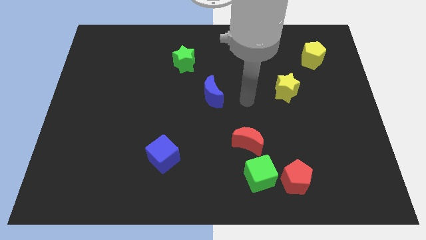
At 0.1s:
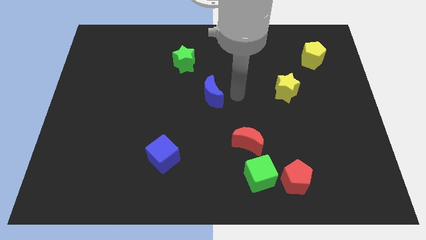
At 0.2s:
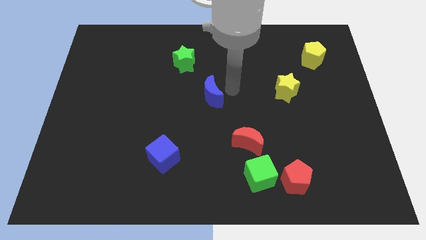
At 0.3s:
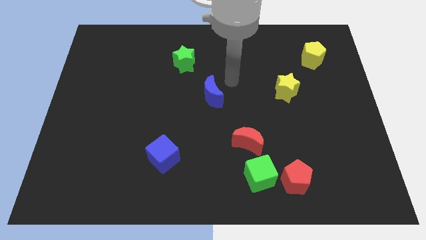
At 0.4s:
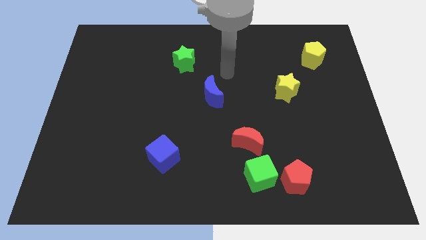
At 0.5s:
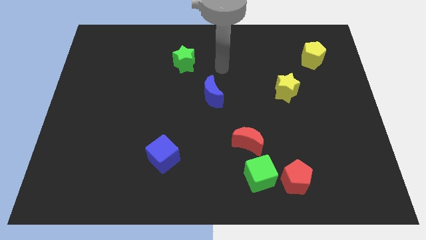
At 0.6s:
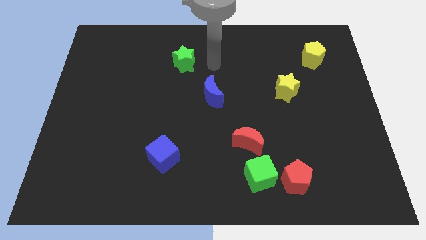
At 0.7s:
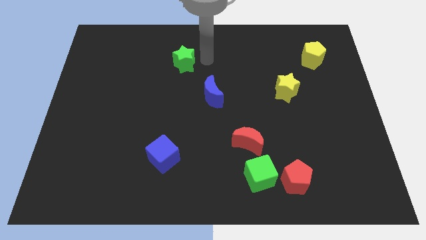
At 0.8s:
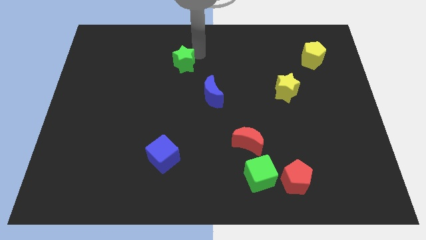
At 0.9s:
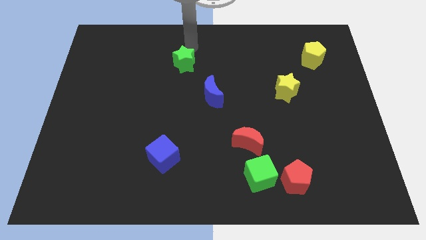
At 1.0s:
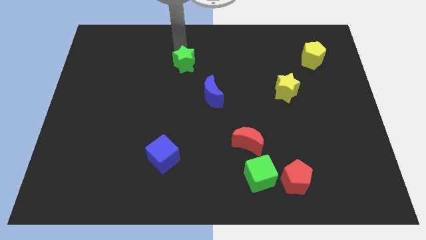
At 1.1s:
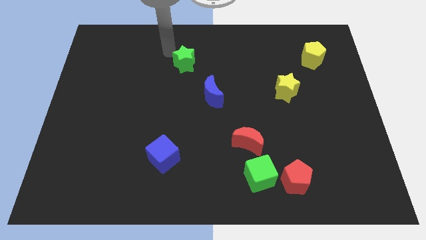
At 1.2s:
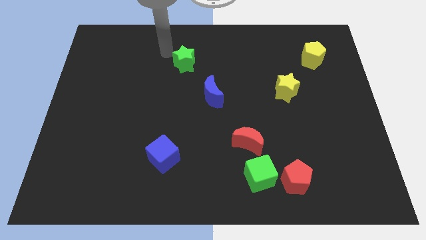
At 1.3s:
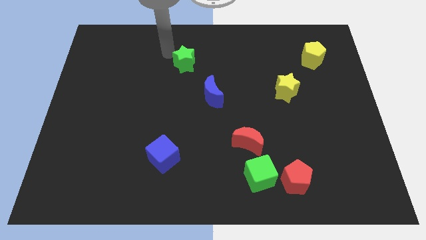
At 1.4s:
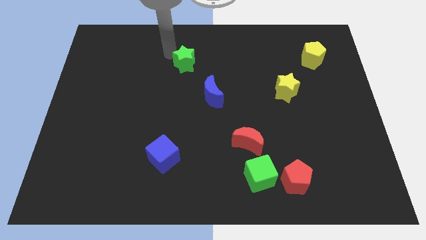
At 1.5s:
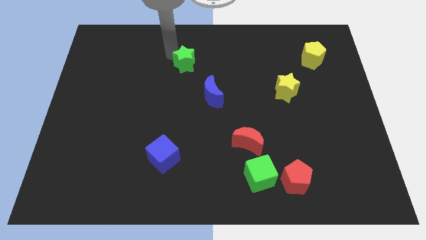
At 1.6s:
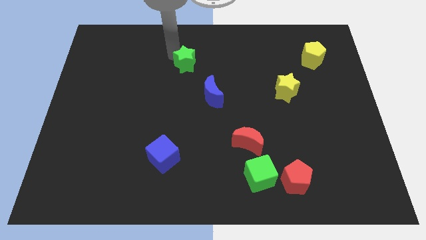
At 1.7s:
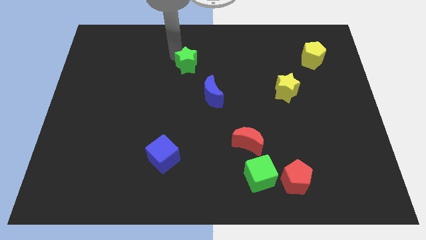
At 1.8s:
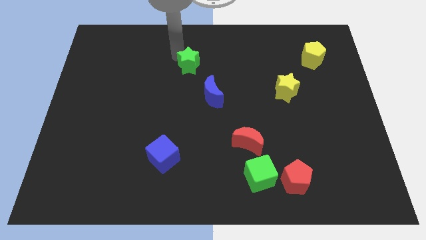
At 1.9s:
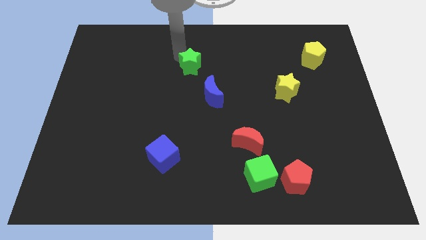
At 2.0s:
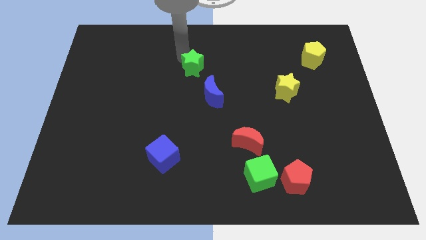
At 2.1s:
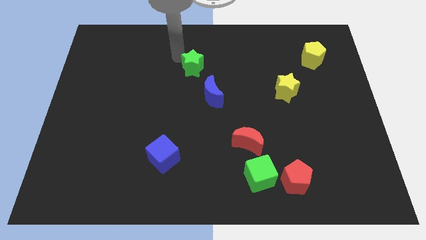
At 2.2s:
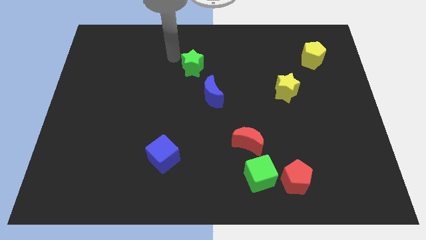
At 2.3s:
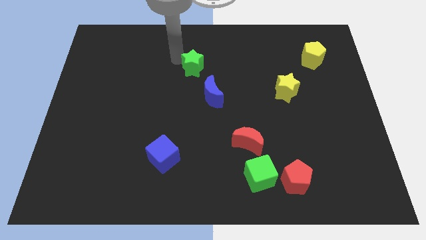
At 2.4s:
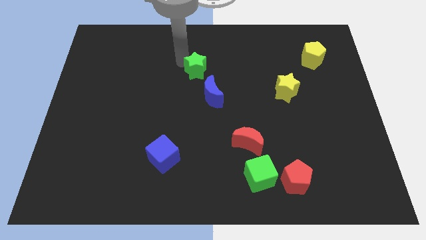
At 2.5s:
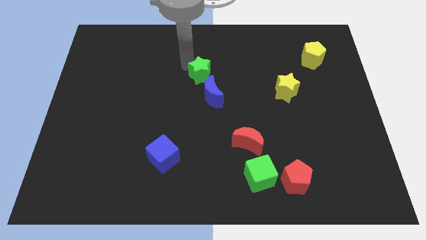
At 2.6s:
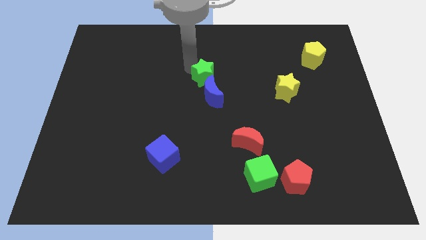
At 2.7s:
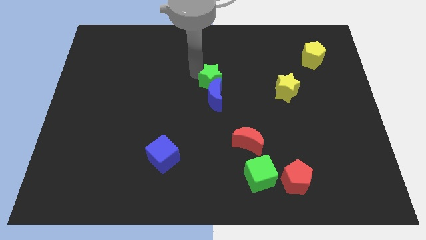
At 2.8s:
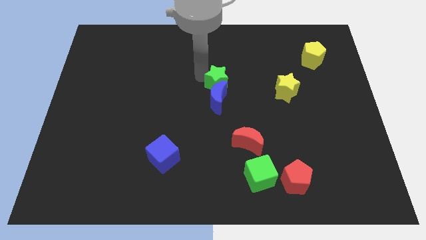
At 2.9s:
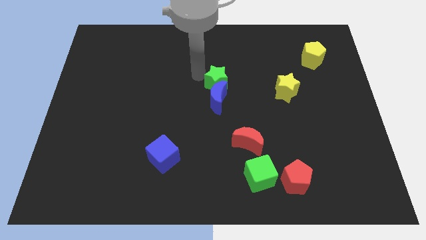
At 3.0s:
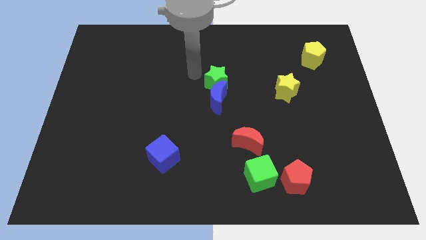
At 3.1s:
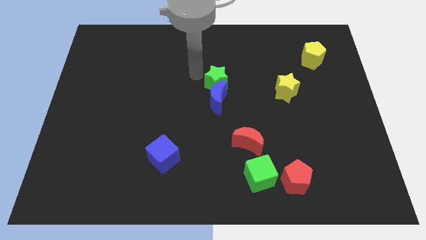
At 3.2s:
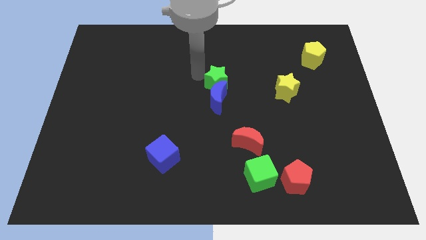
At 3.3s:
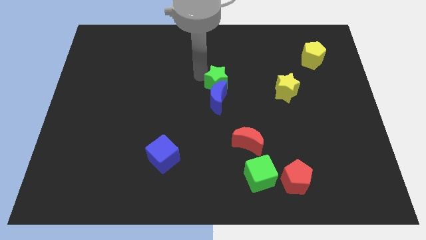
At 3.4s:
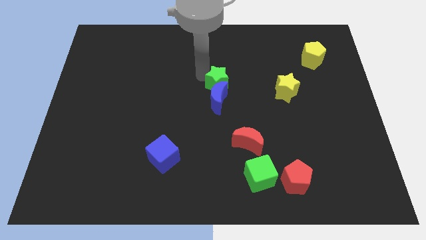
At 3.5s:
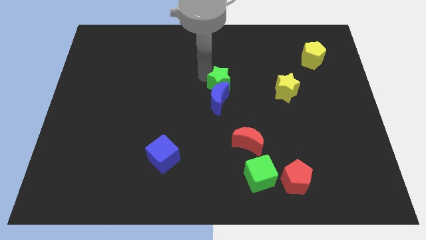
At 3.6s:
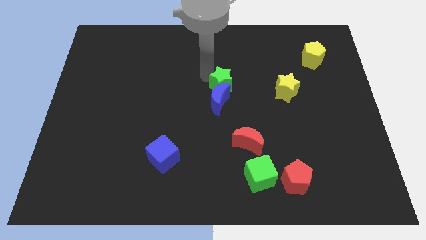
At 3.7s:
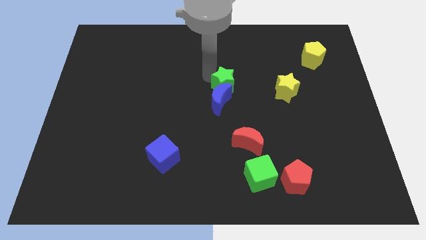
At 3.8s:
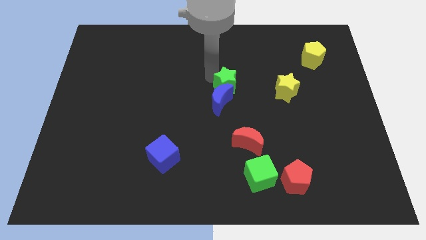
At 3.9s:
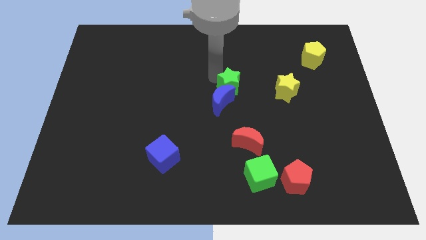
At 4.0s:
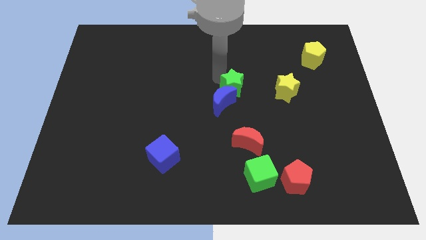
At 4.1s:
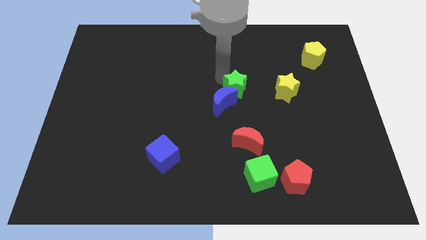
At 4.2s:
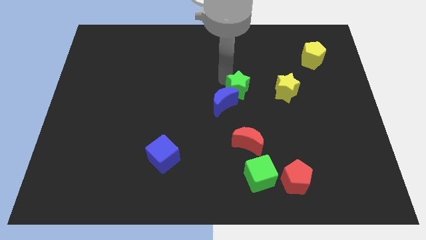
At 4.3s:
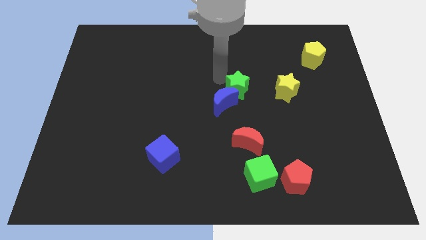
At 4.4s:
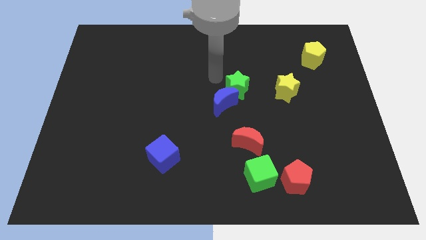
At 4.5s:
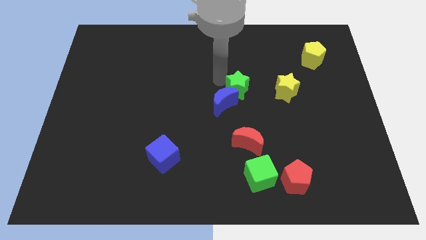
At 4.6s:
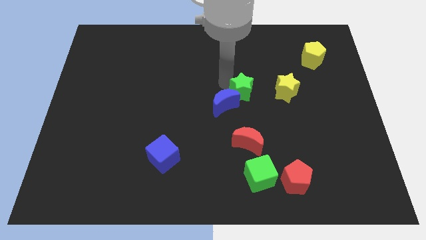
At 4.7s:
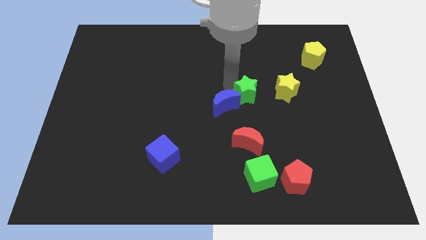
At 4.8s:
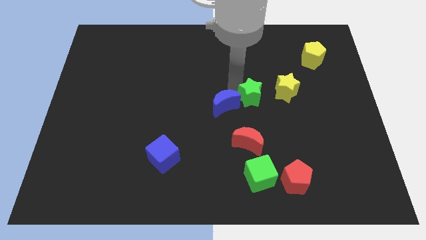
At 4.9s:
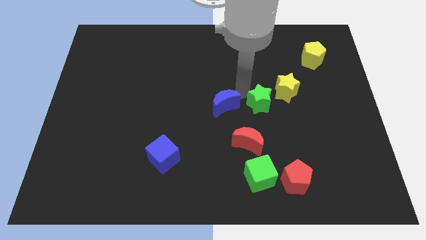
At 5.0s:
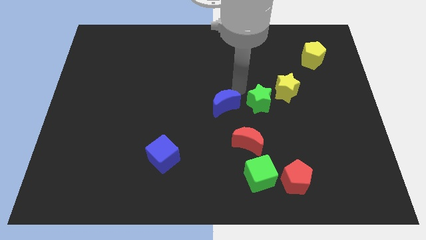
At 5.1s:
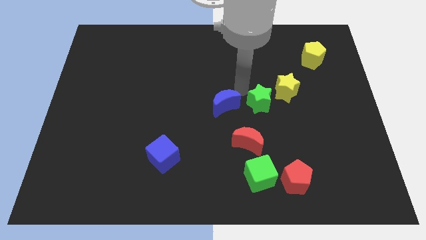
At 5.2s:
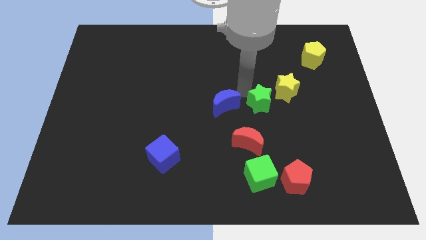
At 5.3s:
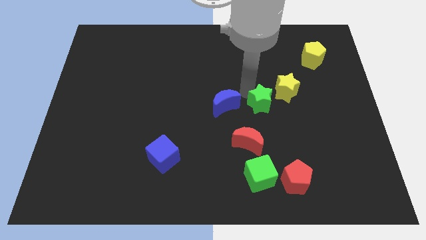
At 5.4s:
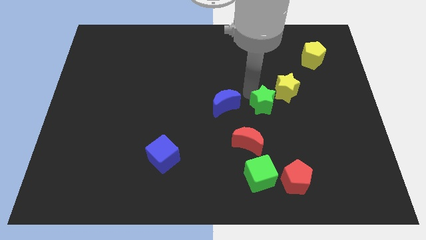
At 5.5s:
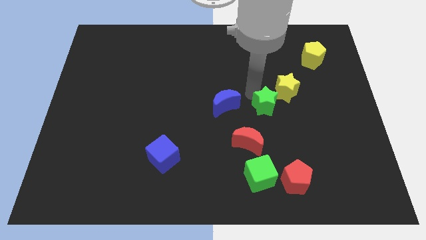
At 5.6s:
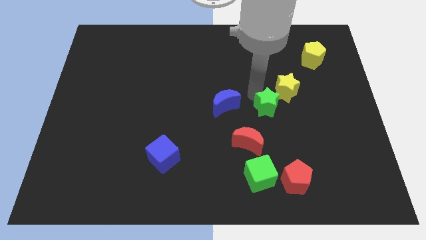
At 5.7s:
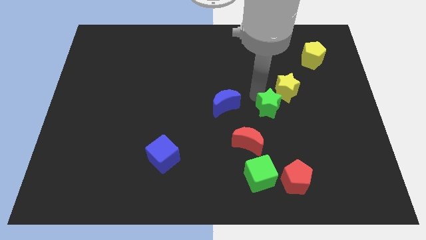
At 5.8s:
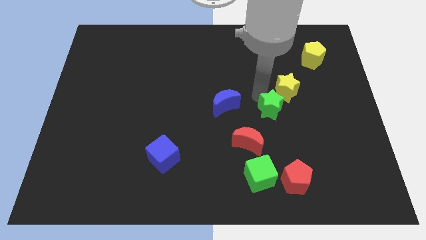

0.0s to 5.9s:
push the green star to the bottom of the yellow star

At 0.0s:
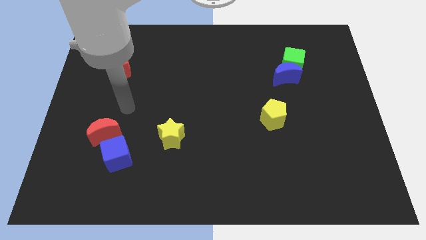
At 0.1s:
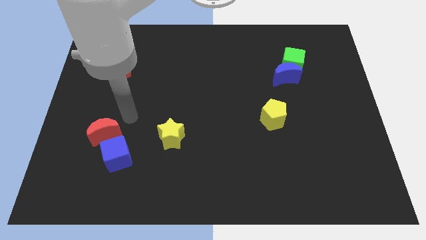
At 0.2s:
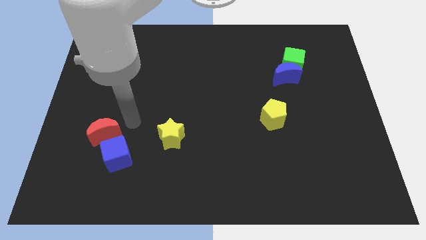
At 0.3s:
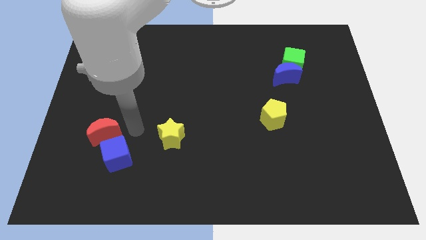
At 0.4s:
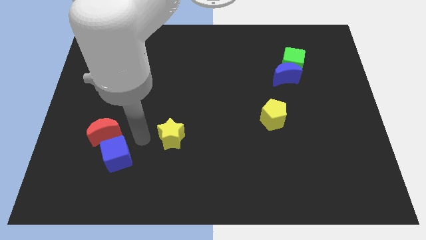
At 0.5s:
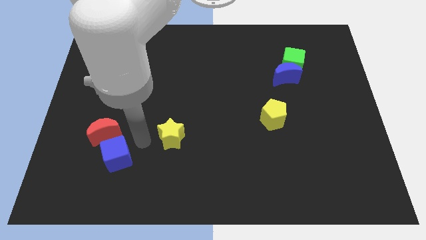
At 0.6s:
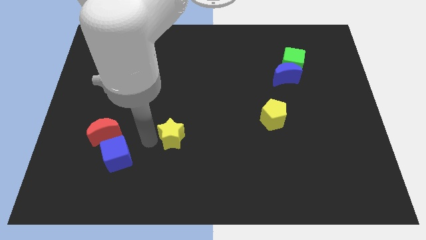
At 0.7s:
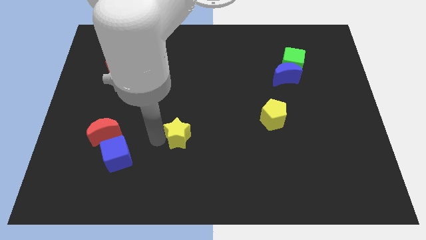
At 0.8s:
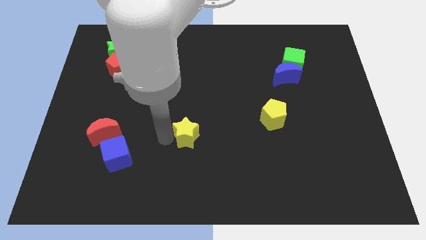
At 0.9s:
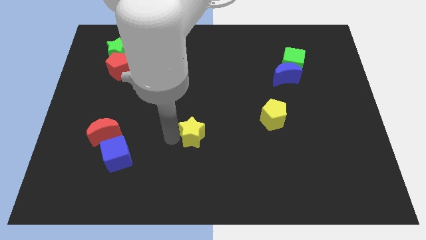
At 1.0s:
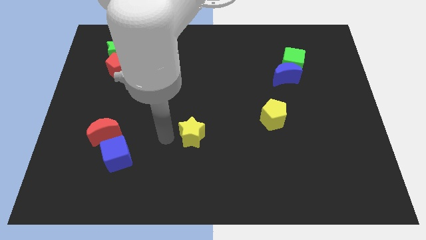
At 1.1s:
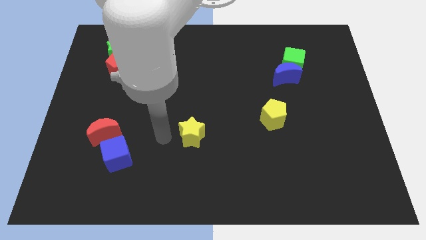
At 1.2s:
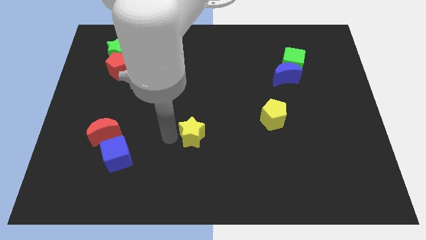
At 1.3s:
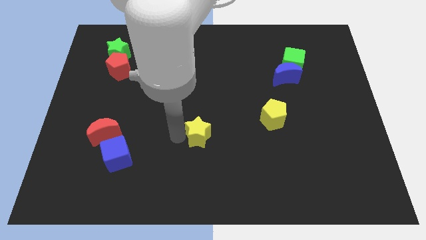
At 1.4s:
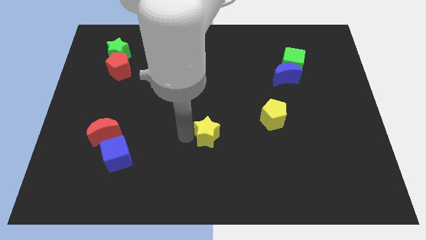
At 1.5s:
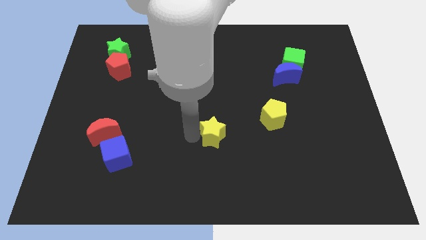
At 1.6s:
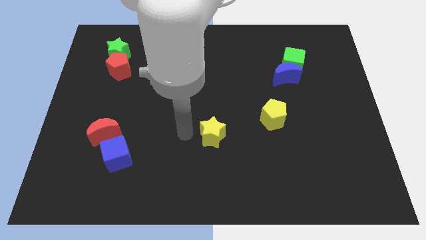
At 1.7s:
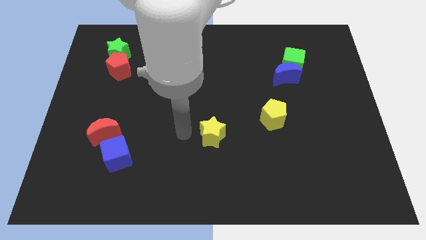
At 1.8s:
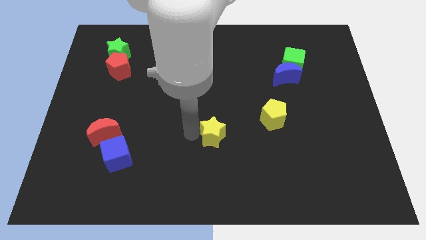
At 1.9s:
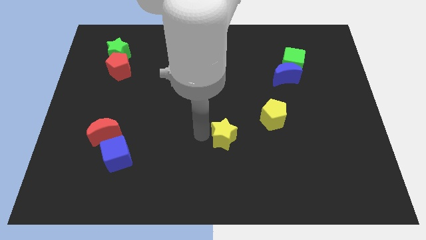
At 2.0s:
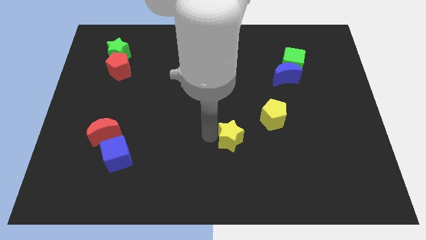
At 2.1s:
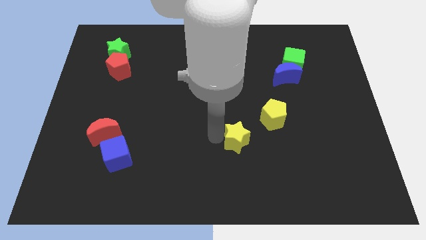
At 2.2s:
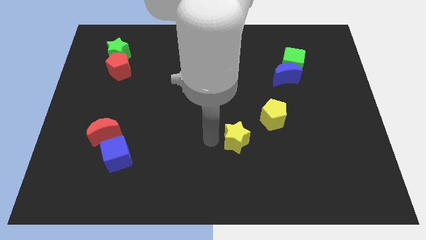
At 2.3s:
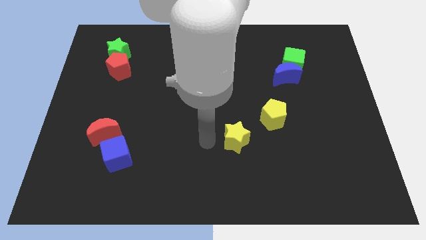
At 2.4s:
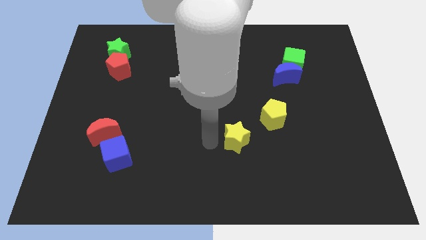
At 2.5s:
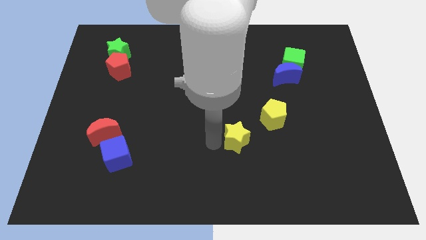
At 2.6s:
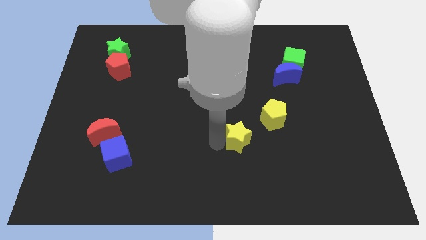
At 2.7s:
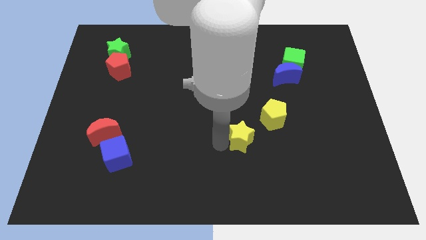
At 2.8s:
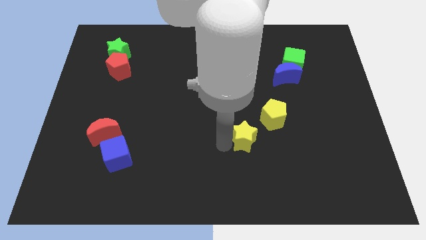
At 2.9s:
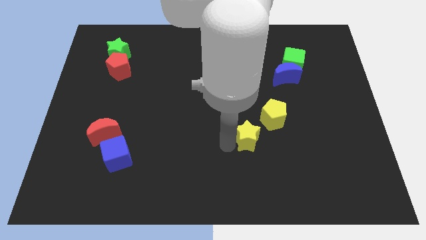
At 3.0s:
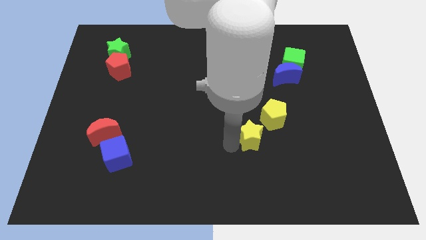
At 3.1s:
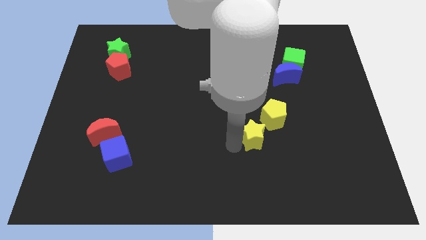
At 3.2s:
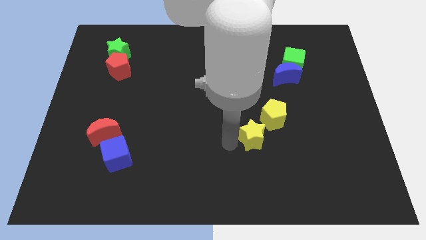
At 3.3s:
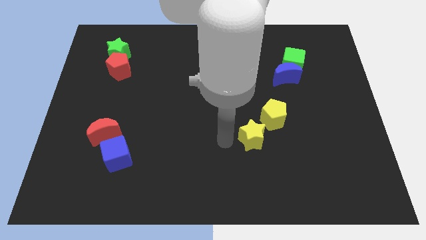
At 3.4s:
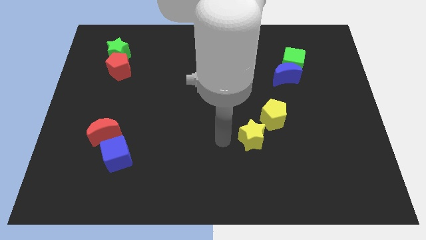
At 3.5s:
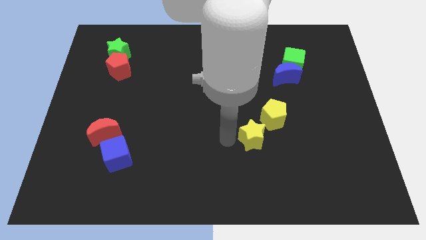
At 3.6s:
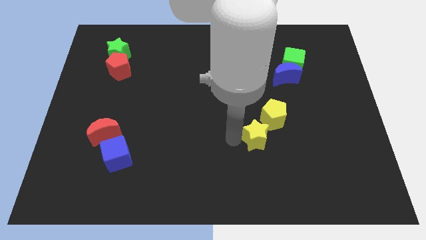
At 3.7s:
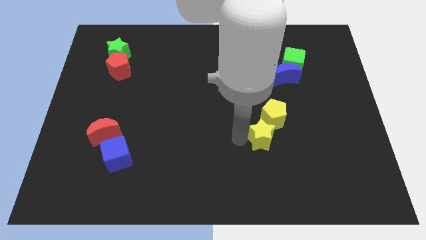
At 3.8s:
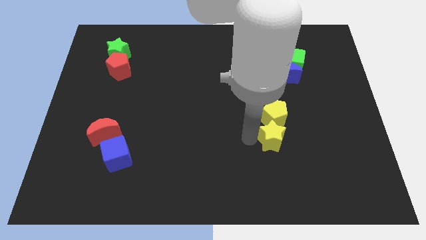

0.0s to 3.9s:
put the yellow star diagonally down and to the right of the yellow pentagon
